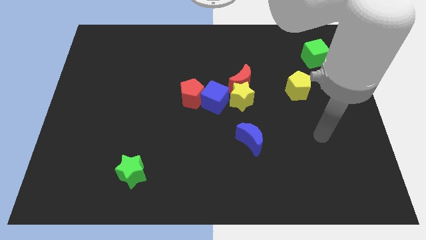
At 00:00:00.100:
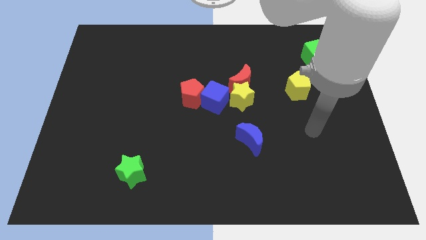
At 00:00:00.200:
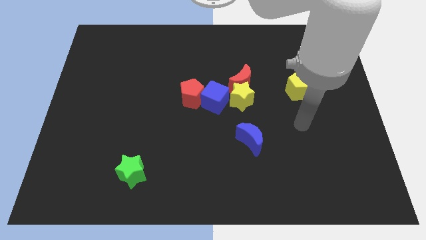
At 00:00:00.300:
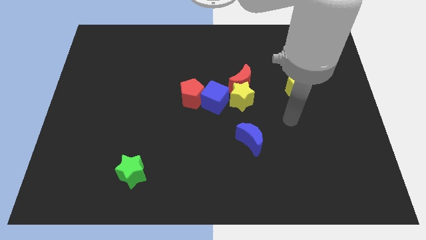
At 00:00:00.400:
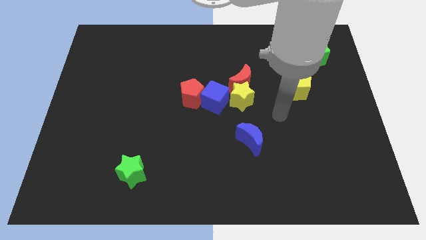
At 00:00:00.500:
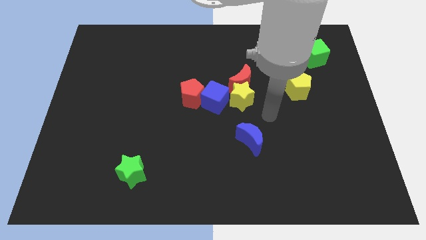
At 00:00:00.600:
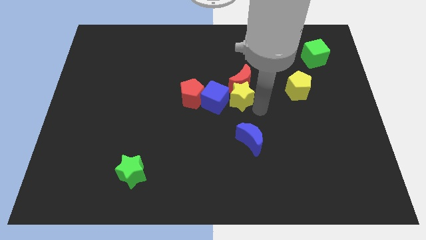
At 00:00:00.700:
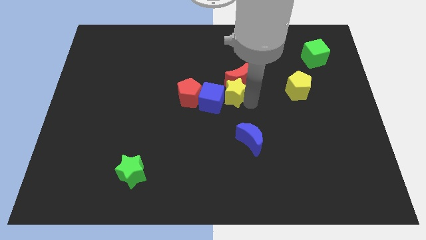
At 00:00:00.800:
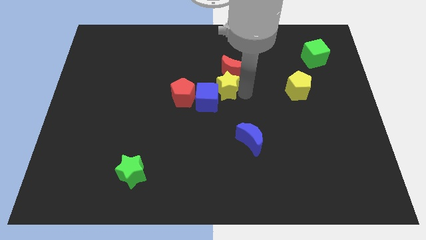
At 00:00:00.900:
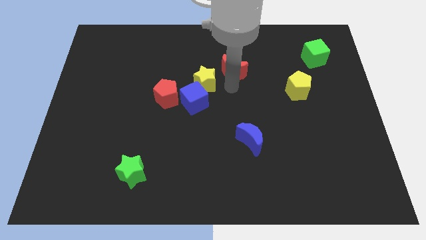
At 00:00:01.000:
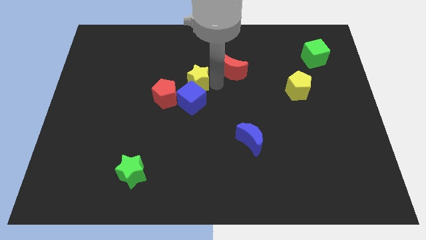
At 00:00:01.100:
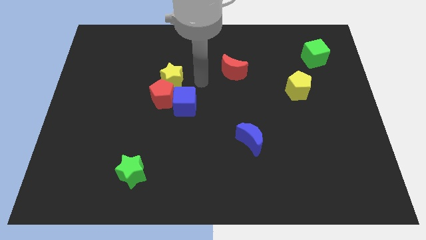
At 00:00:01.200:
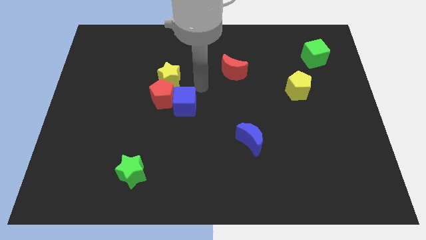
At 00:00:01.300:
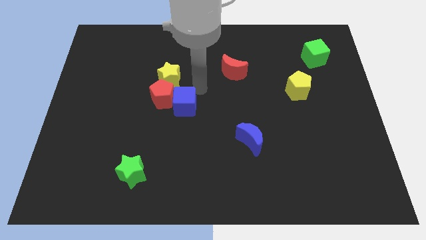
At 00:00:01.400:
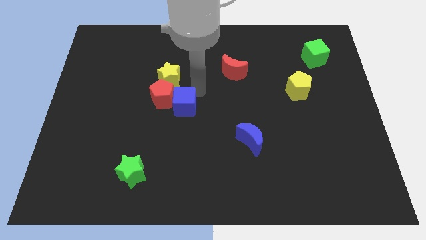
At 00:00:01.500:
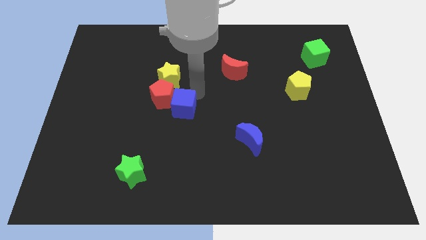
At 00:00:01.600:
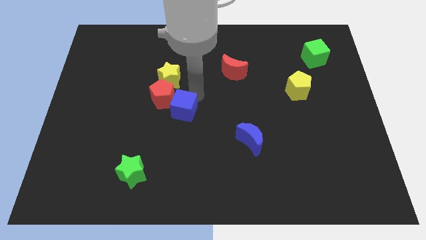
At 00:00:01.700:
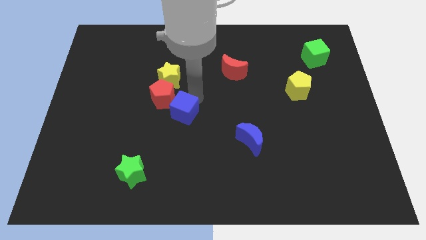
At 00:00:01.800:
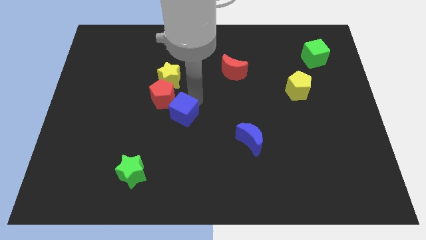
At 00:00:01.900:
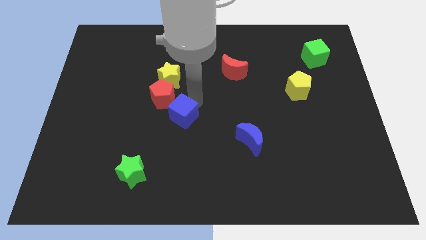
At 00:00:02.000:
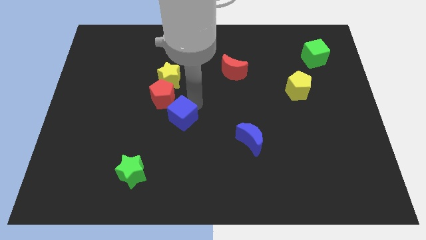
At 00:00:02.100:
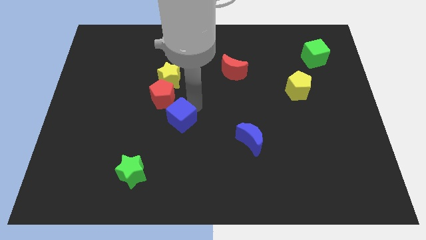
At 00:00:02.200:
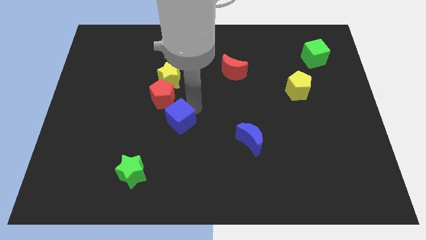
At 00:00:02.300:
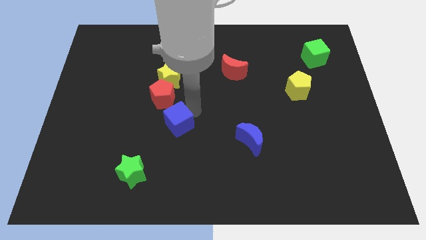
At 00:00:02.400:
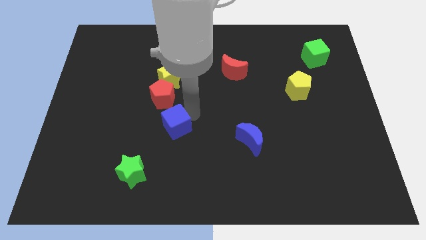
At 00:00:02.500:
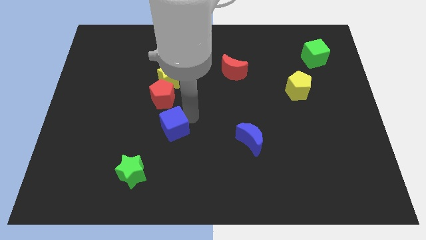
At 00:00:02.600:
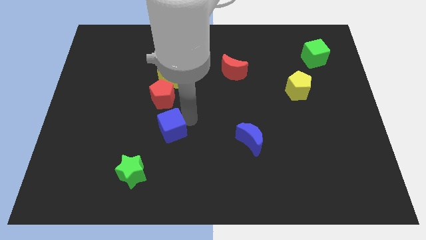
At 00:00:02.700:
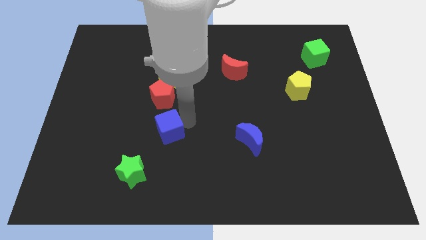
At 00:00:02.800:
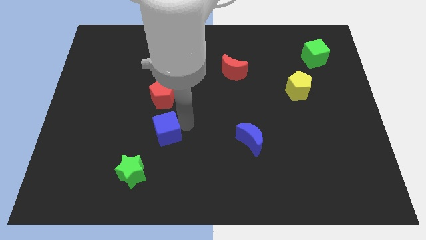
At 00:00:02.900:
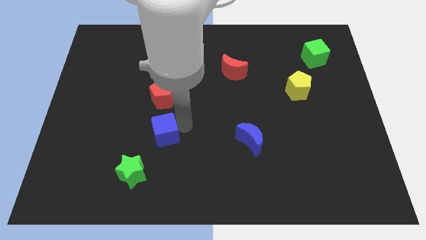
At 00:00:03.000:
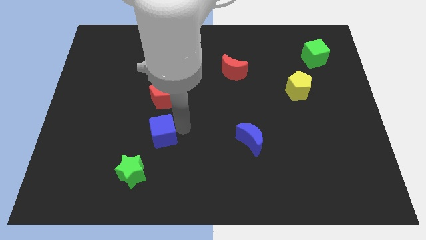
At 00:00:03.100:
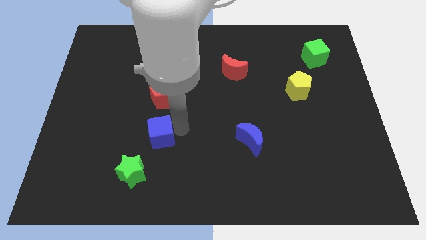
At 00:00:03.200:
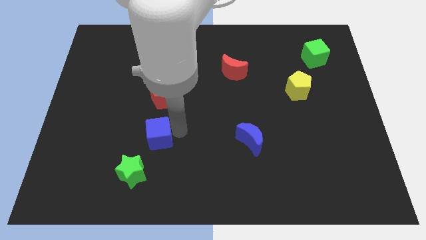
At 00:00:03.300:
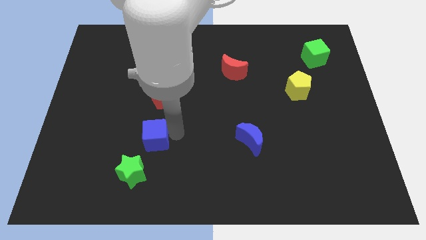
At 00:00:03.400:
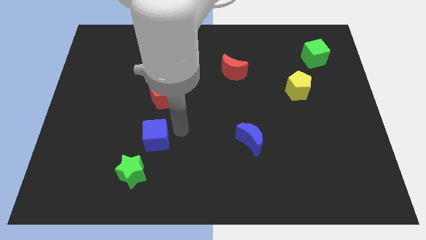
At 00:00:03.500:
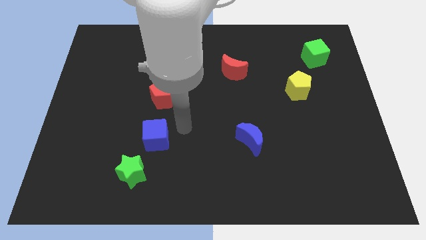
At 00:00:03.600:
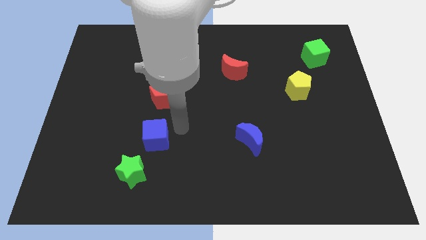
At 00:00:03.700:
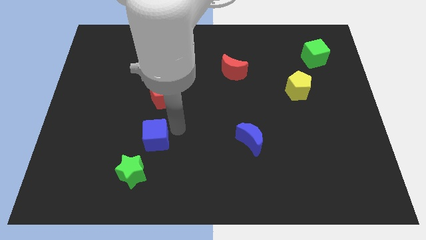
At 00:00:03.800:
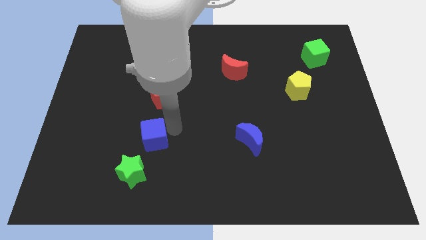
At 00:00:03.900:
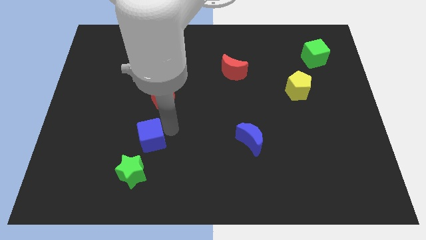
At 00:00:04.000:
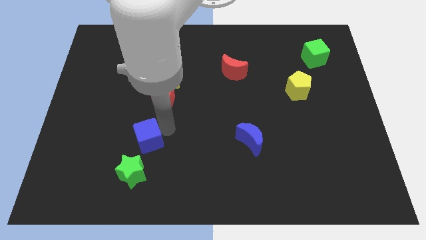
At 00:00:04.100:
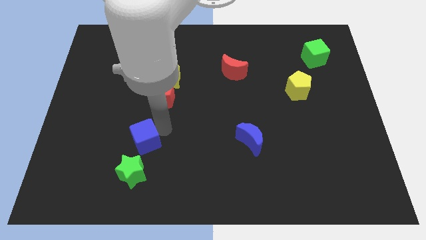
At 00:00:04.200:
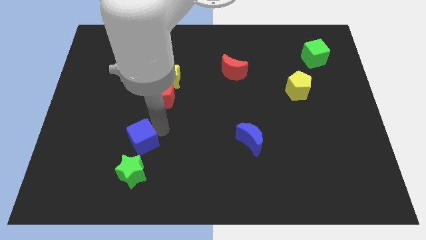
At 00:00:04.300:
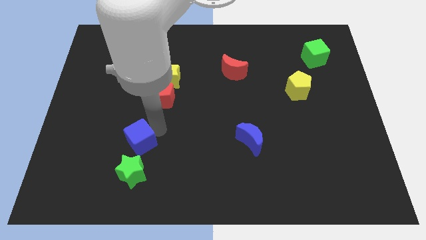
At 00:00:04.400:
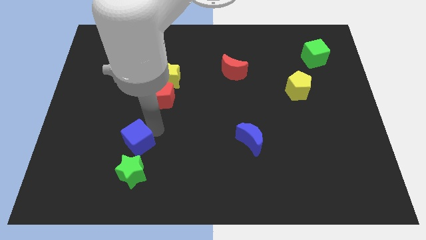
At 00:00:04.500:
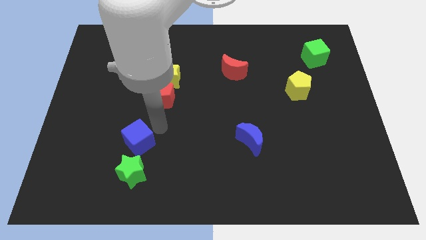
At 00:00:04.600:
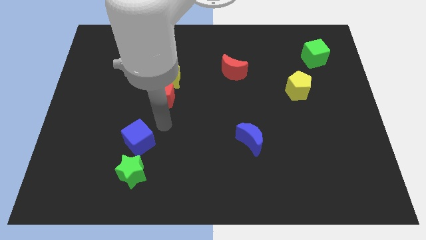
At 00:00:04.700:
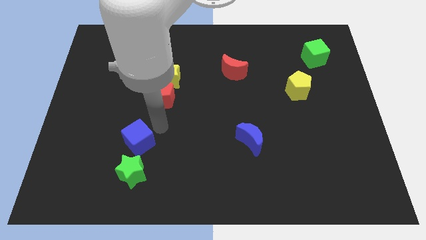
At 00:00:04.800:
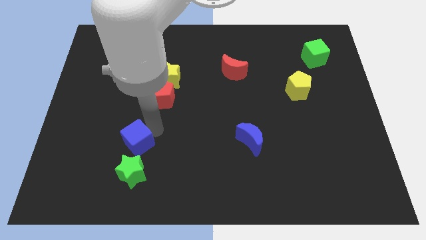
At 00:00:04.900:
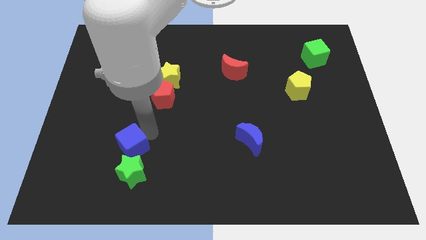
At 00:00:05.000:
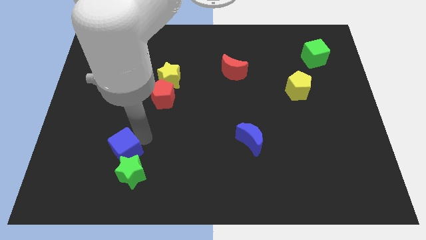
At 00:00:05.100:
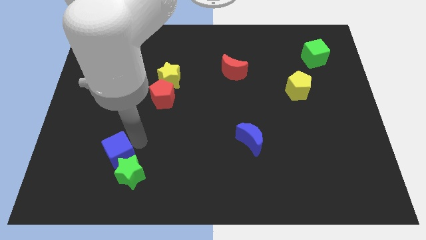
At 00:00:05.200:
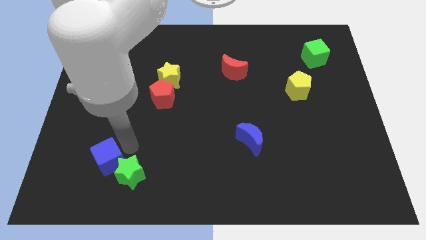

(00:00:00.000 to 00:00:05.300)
push the blue cube to the left side of the green star

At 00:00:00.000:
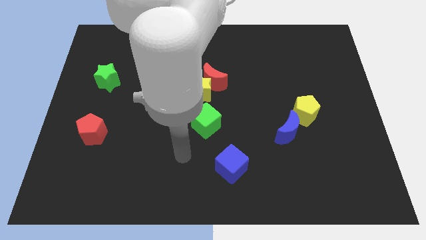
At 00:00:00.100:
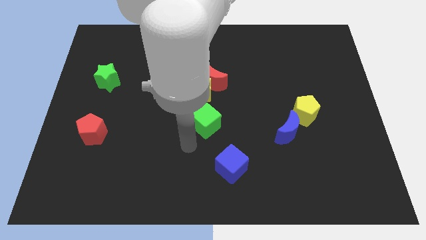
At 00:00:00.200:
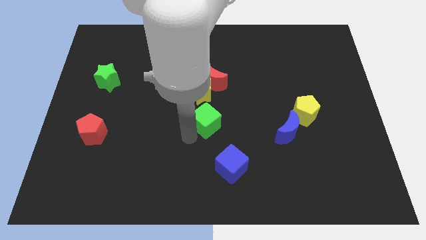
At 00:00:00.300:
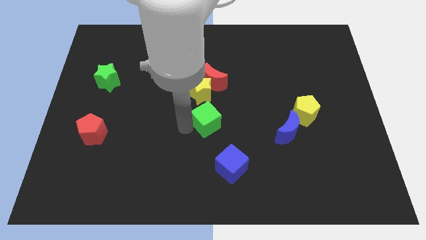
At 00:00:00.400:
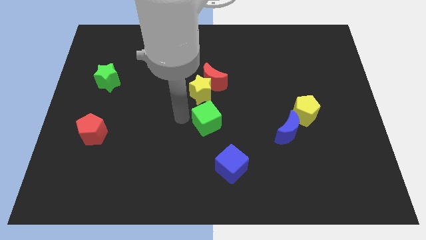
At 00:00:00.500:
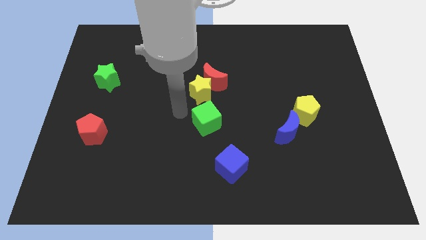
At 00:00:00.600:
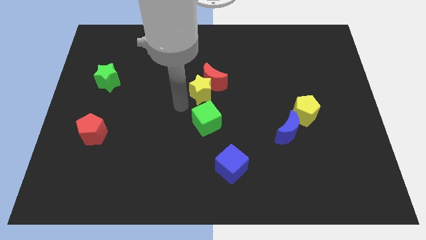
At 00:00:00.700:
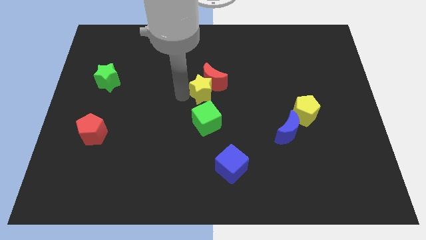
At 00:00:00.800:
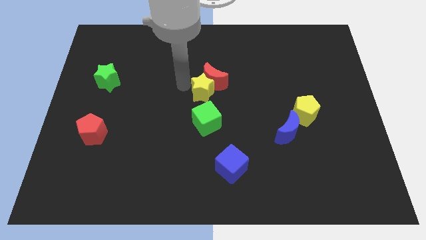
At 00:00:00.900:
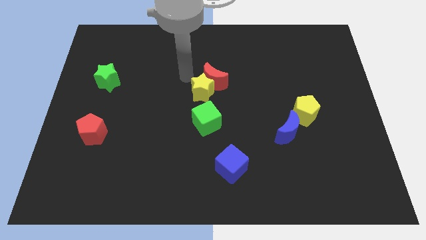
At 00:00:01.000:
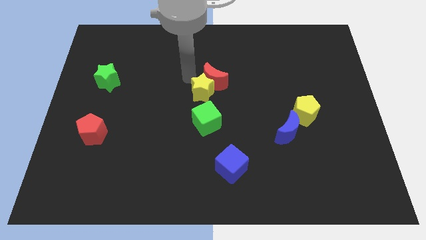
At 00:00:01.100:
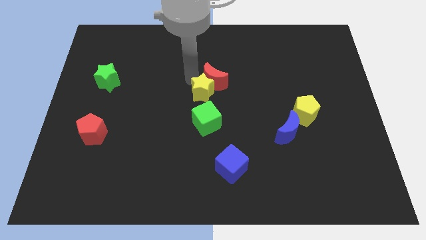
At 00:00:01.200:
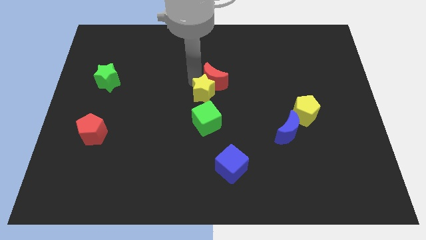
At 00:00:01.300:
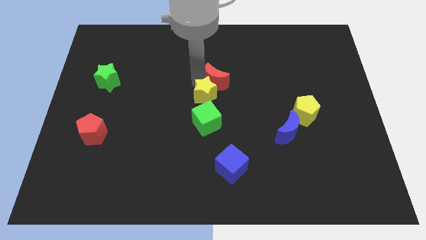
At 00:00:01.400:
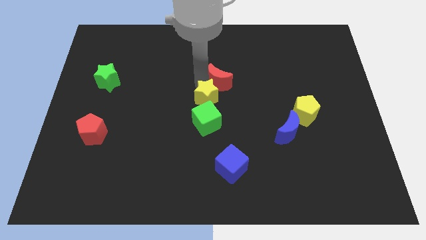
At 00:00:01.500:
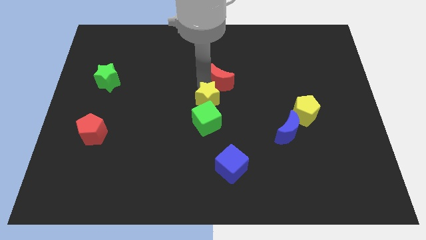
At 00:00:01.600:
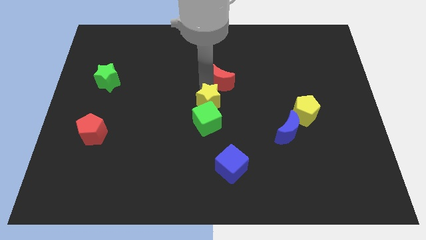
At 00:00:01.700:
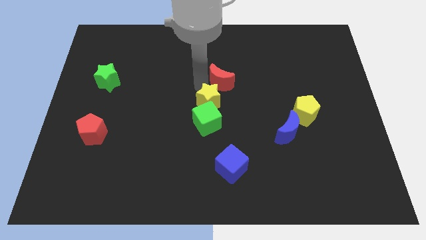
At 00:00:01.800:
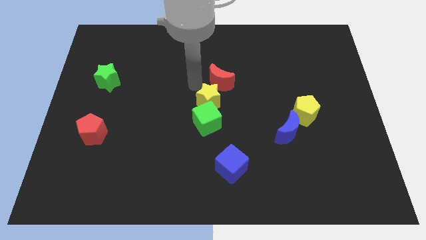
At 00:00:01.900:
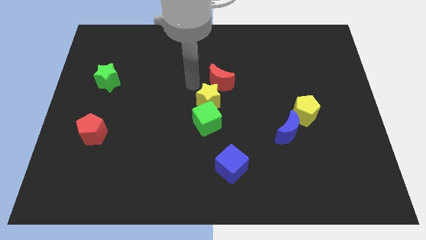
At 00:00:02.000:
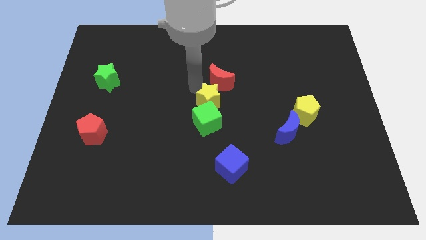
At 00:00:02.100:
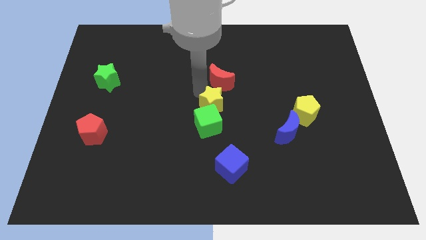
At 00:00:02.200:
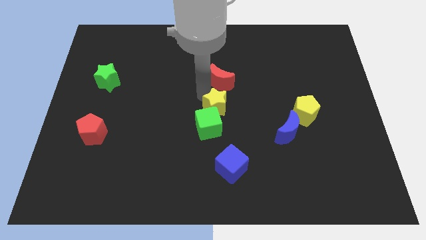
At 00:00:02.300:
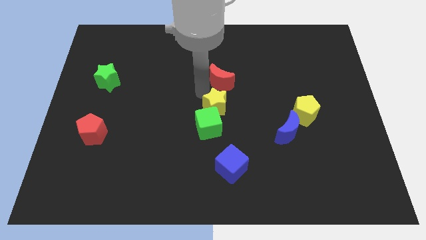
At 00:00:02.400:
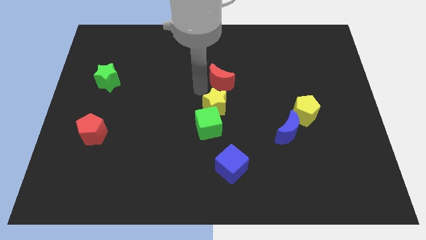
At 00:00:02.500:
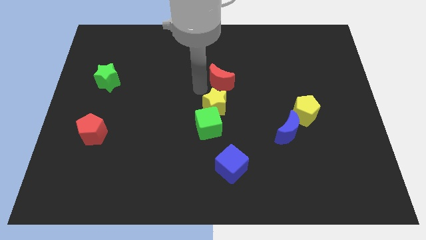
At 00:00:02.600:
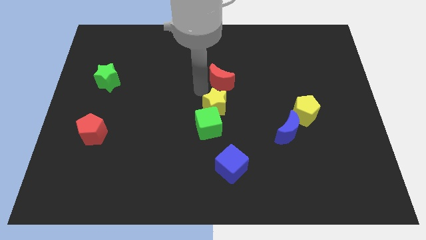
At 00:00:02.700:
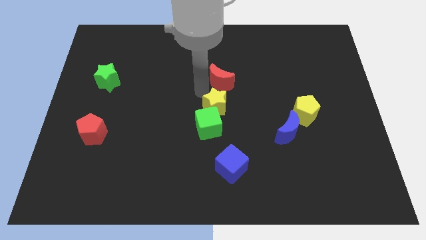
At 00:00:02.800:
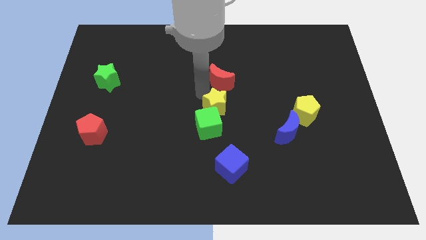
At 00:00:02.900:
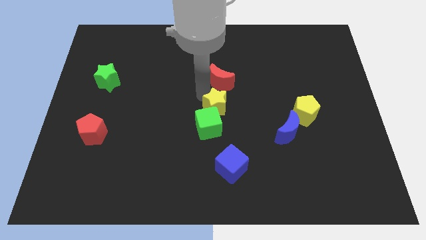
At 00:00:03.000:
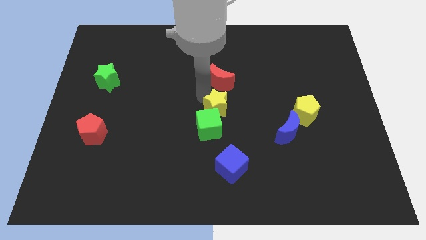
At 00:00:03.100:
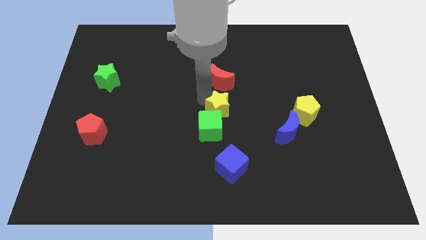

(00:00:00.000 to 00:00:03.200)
push the yellow star above the blue cube
